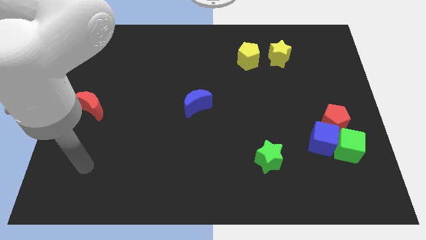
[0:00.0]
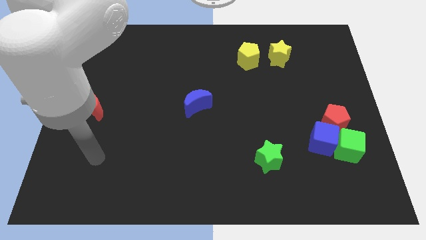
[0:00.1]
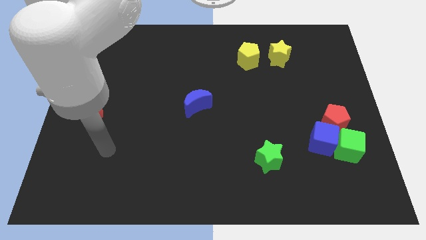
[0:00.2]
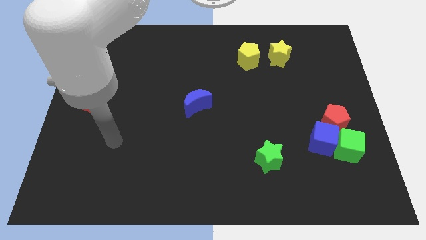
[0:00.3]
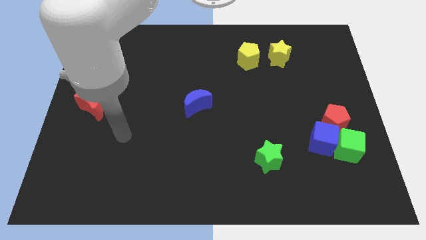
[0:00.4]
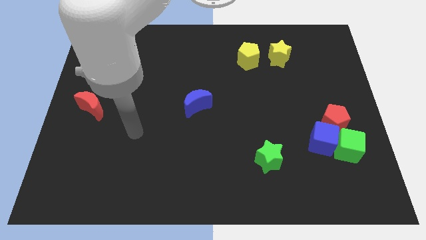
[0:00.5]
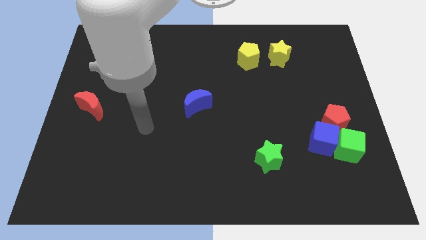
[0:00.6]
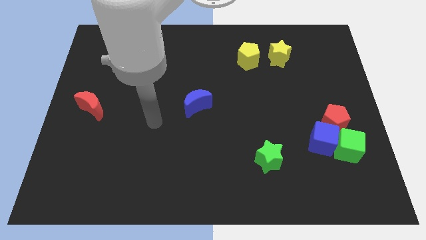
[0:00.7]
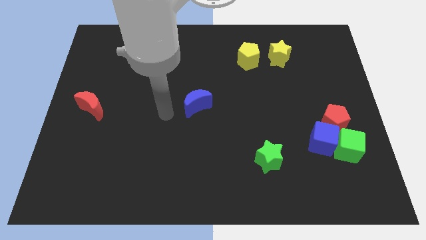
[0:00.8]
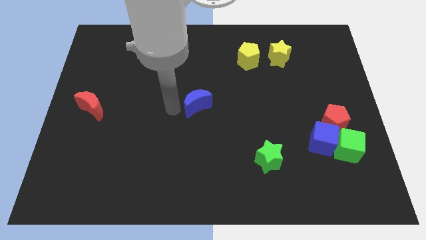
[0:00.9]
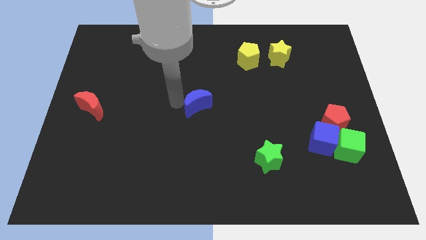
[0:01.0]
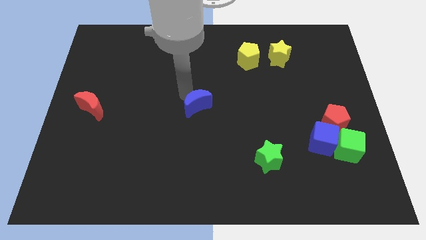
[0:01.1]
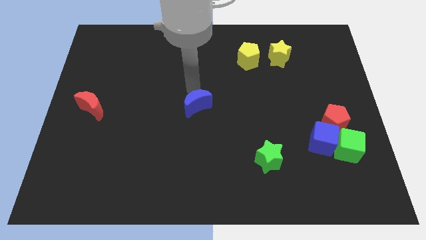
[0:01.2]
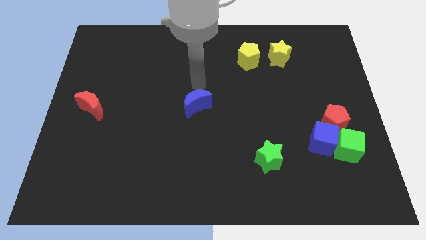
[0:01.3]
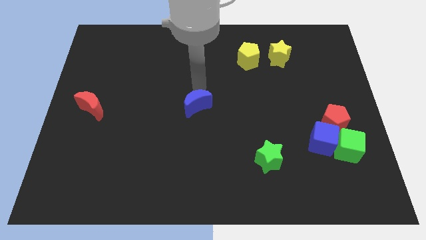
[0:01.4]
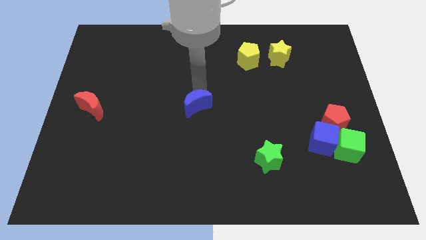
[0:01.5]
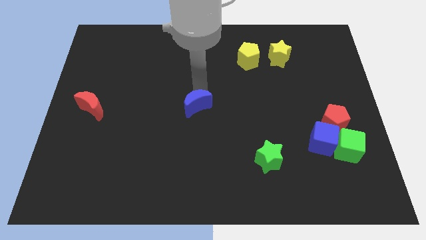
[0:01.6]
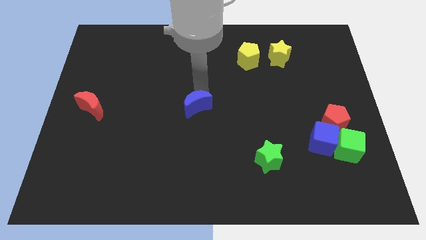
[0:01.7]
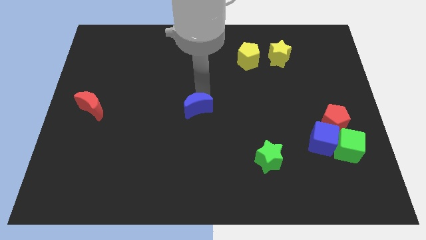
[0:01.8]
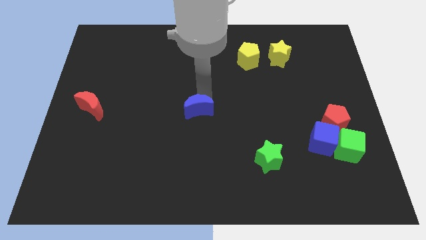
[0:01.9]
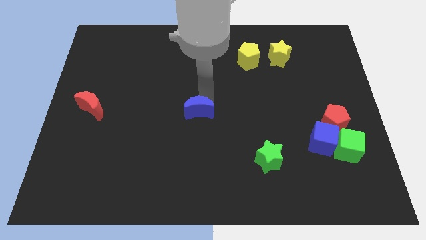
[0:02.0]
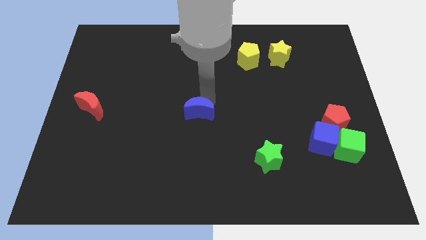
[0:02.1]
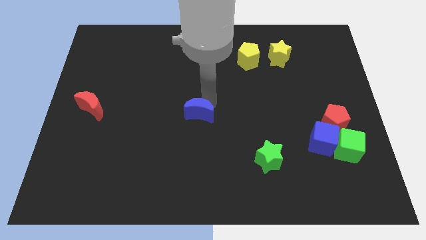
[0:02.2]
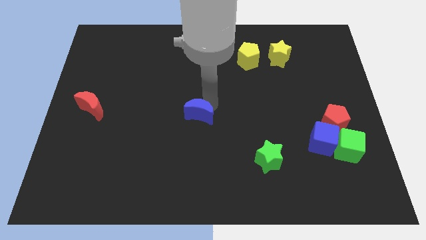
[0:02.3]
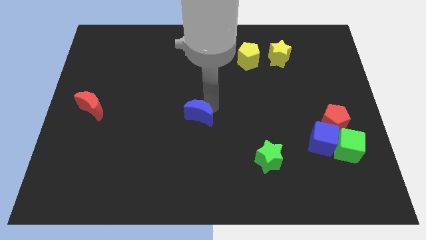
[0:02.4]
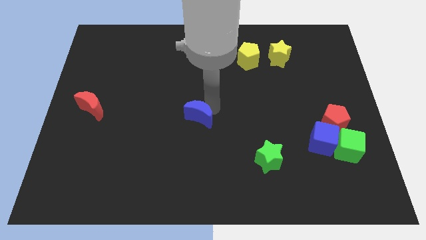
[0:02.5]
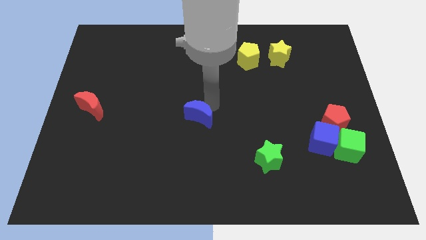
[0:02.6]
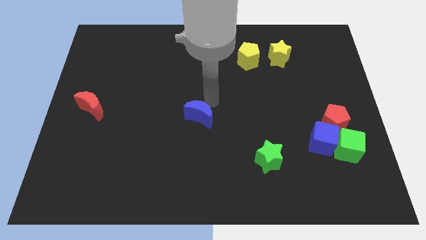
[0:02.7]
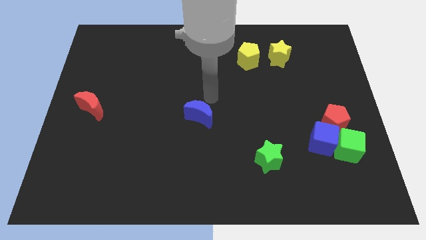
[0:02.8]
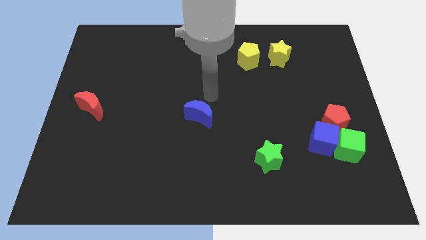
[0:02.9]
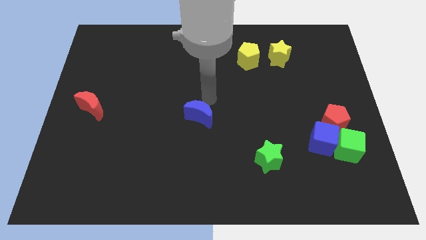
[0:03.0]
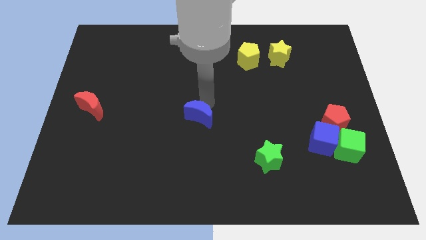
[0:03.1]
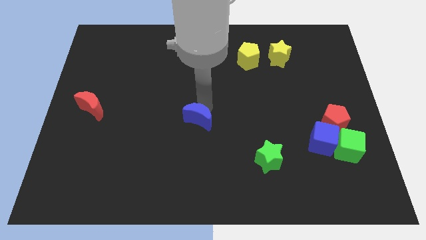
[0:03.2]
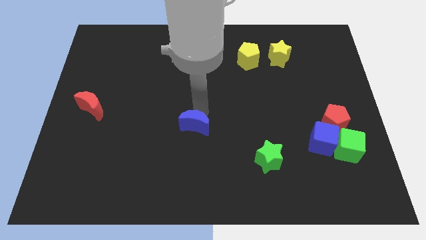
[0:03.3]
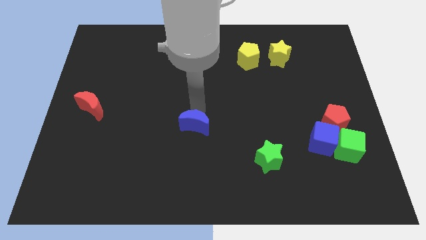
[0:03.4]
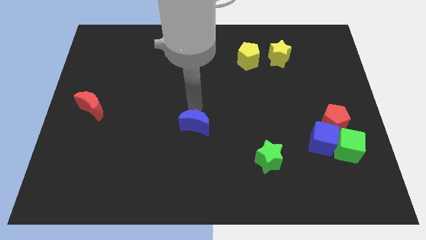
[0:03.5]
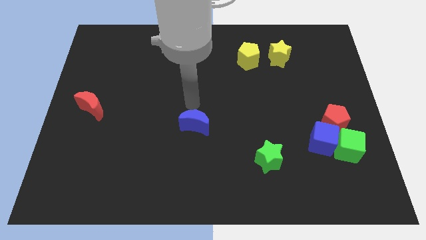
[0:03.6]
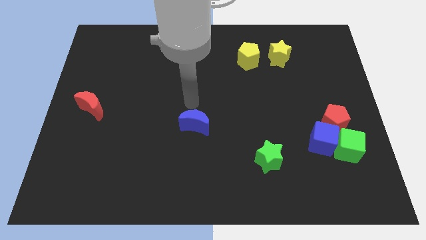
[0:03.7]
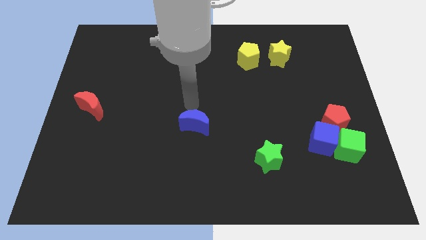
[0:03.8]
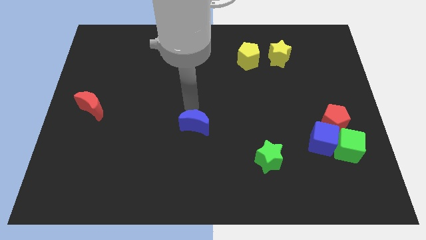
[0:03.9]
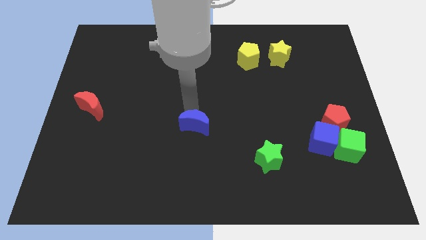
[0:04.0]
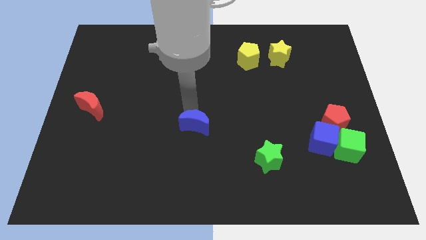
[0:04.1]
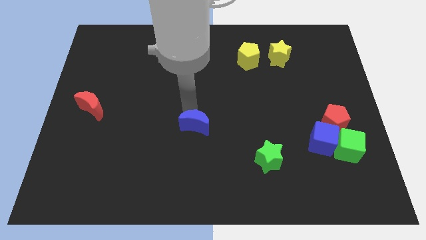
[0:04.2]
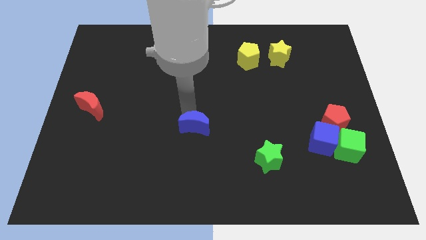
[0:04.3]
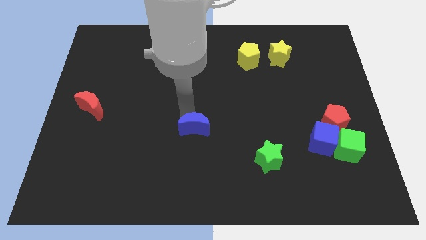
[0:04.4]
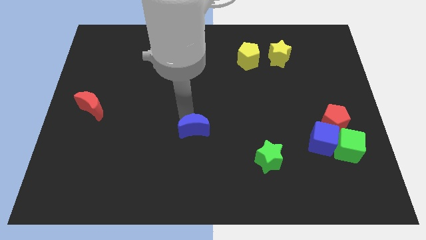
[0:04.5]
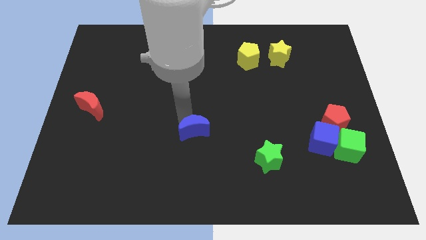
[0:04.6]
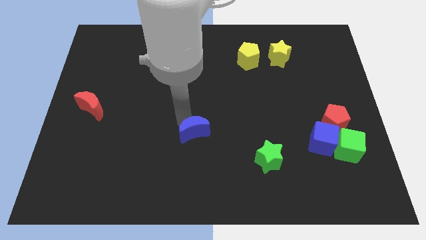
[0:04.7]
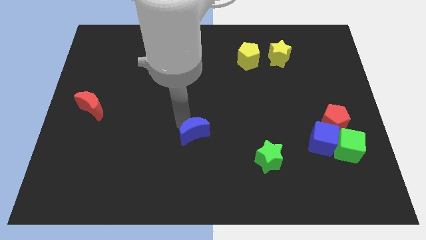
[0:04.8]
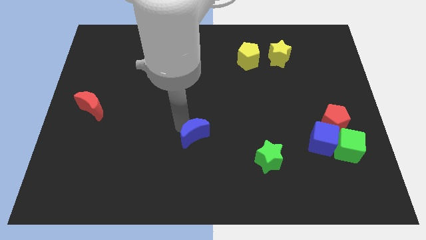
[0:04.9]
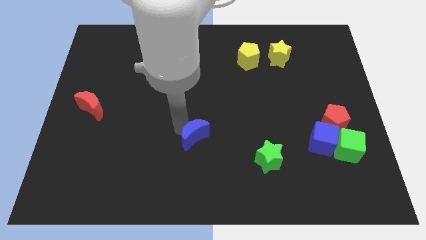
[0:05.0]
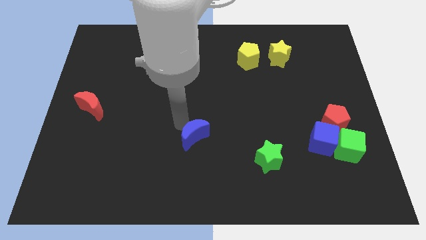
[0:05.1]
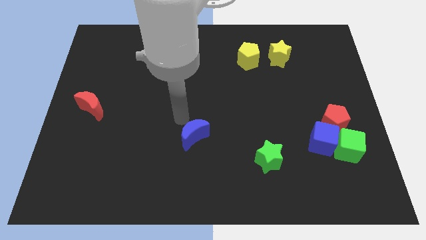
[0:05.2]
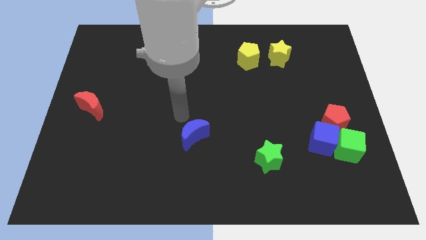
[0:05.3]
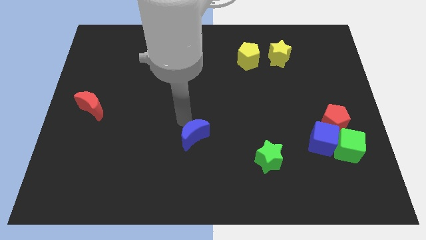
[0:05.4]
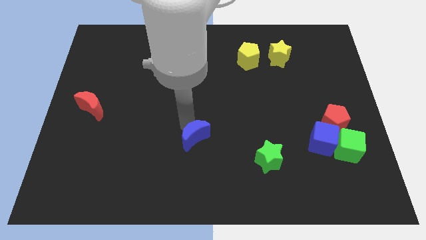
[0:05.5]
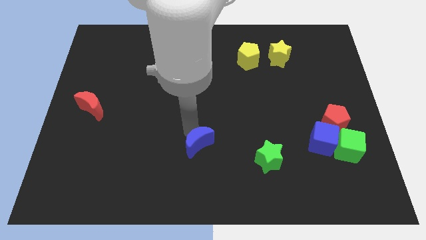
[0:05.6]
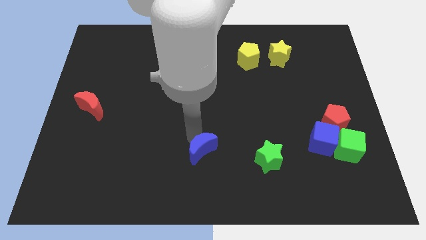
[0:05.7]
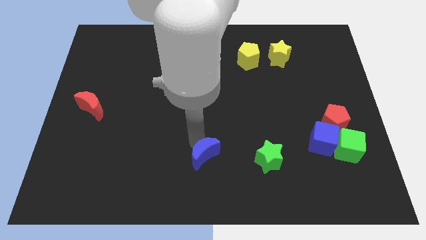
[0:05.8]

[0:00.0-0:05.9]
slide the blue moon to the bottom

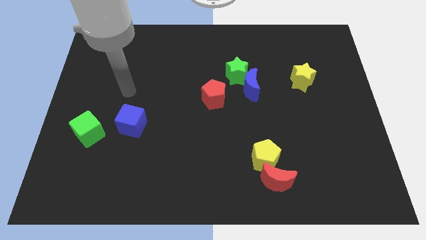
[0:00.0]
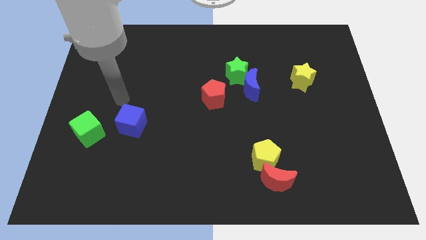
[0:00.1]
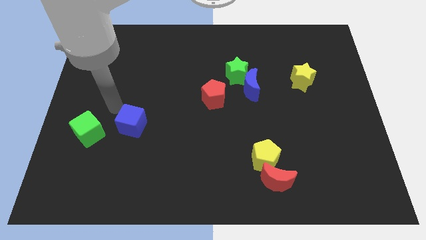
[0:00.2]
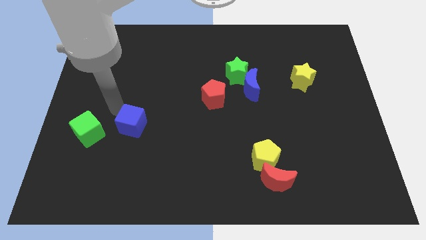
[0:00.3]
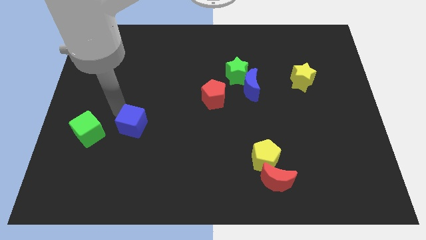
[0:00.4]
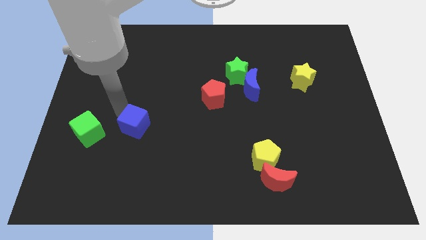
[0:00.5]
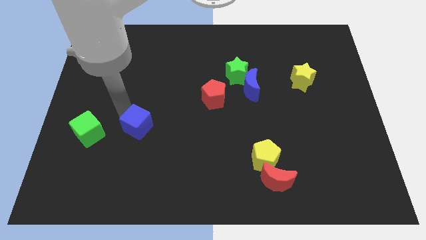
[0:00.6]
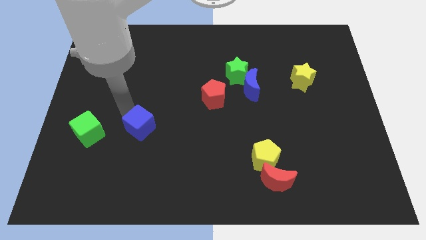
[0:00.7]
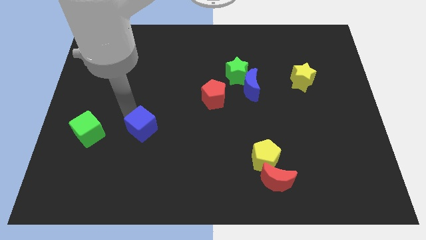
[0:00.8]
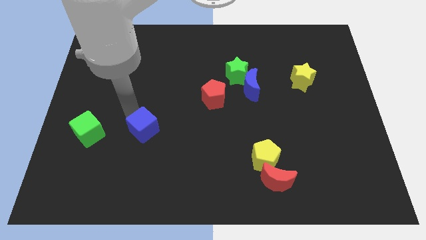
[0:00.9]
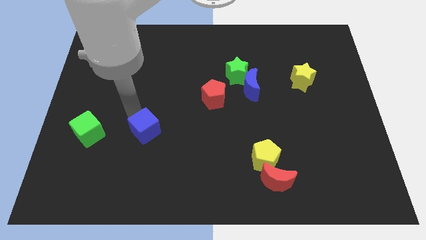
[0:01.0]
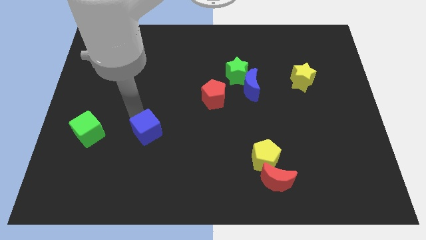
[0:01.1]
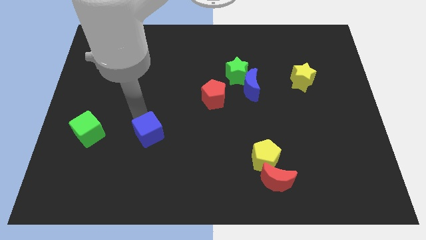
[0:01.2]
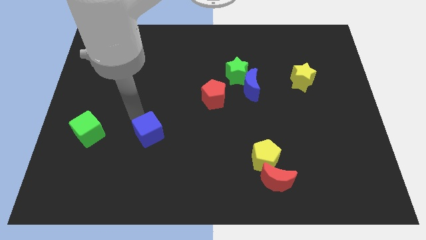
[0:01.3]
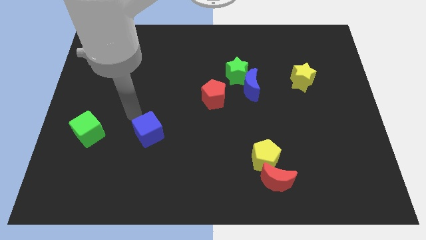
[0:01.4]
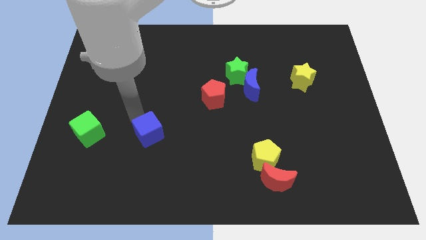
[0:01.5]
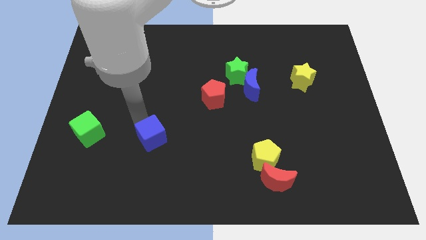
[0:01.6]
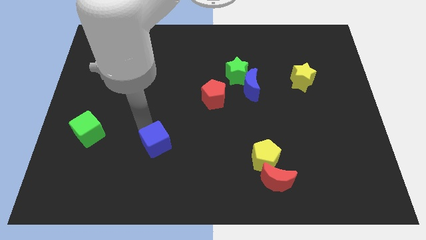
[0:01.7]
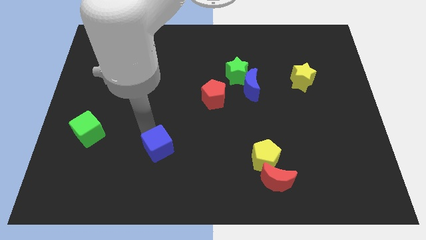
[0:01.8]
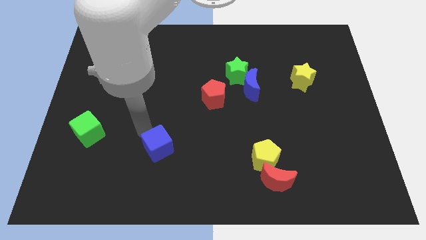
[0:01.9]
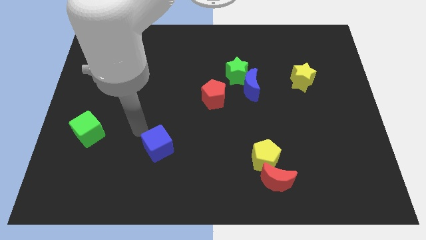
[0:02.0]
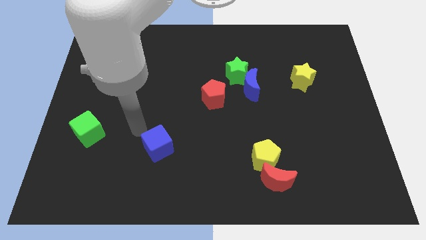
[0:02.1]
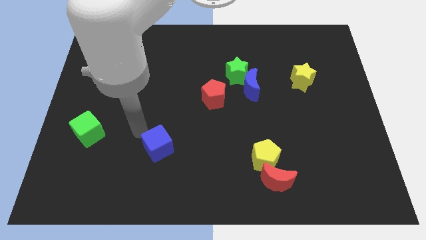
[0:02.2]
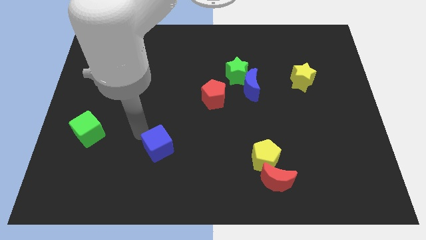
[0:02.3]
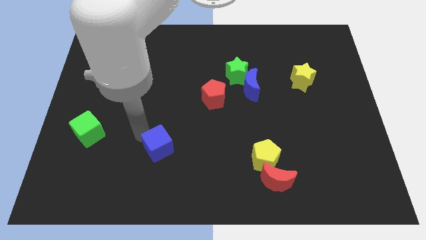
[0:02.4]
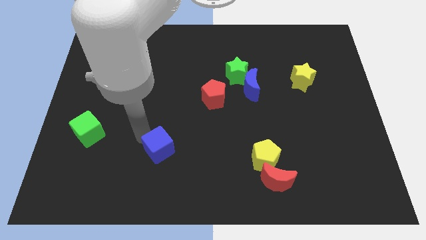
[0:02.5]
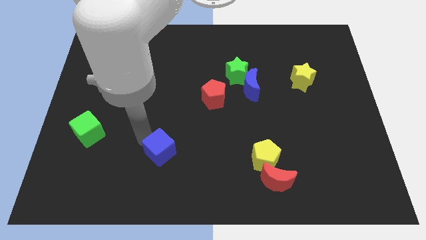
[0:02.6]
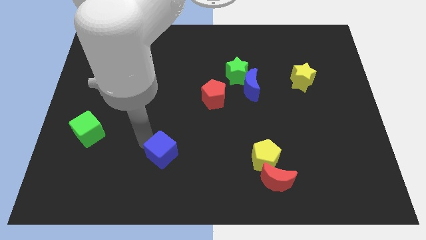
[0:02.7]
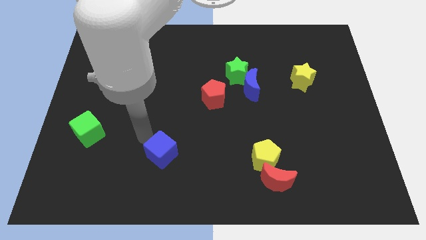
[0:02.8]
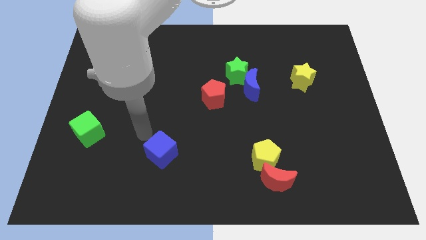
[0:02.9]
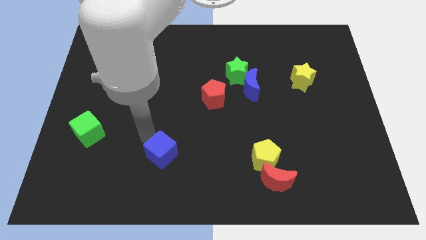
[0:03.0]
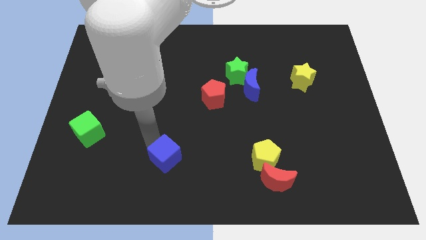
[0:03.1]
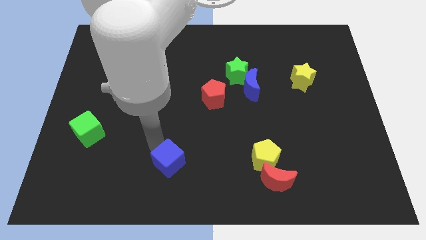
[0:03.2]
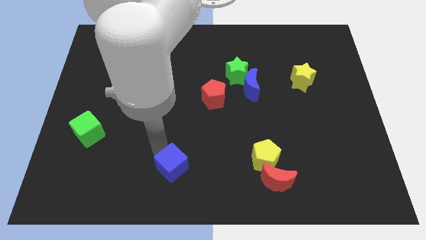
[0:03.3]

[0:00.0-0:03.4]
slide the blue cube to the bottom side
